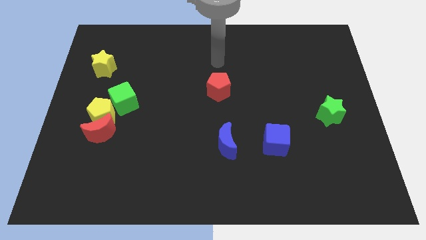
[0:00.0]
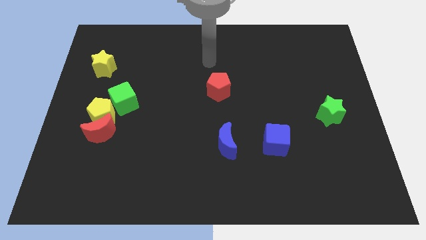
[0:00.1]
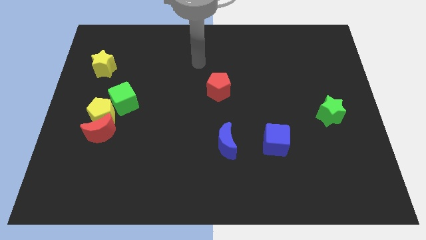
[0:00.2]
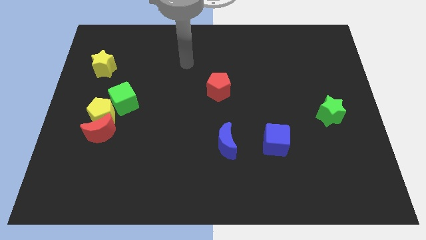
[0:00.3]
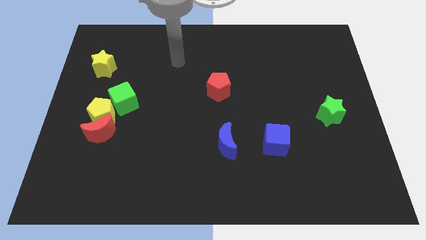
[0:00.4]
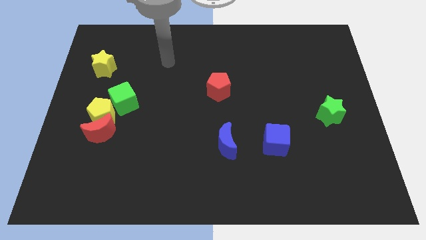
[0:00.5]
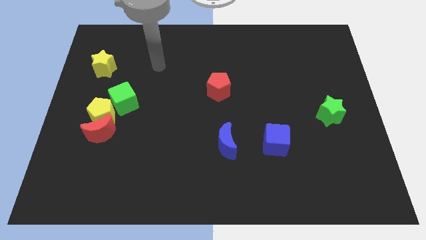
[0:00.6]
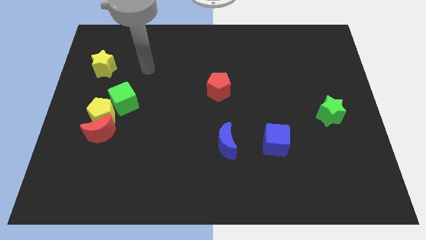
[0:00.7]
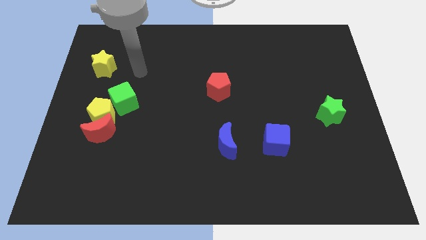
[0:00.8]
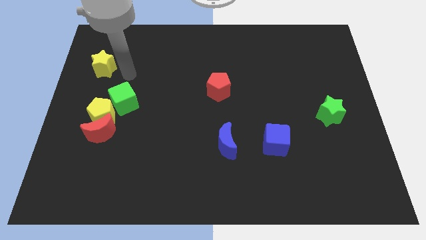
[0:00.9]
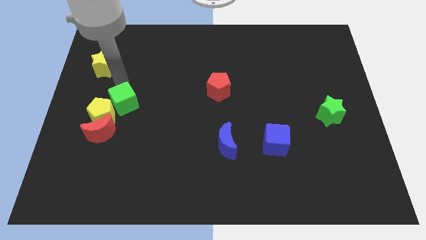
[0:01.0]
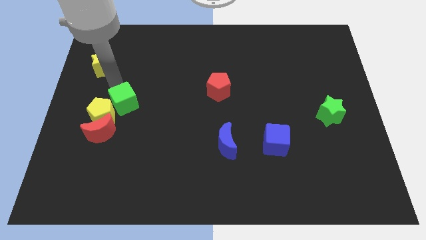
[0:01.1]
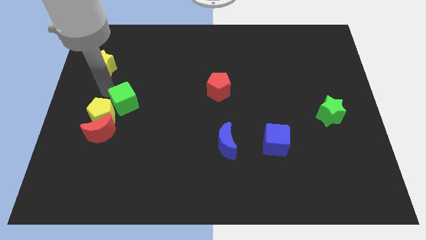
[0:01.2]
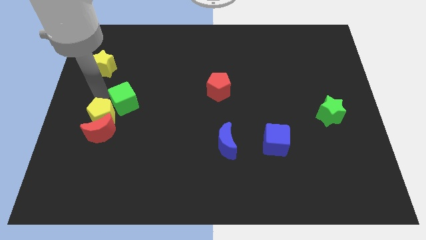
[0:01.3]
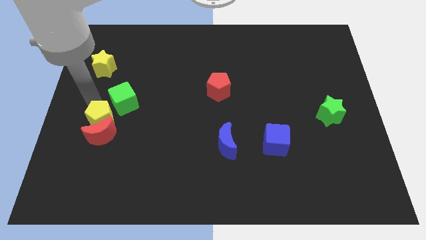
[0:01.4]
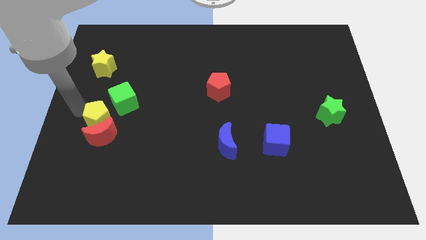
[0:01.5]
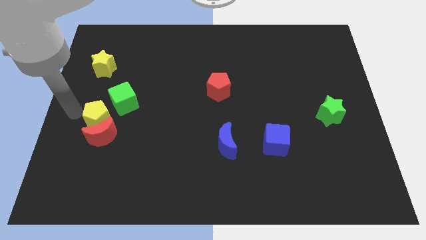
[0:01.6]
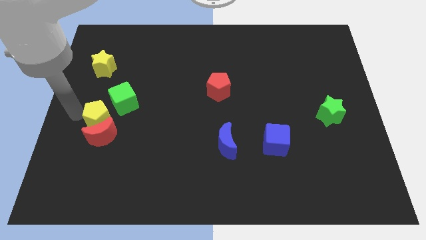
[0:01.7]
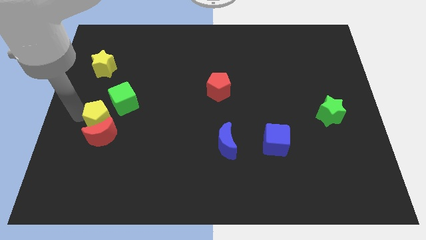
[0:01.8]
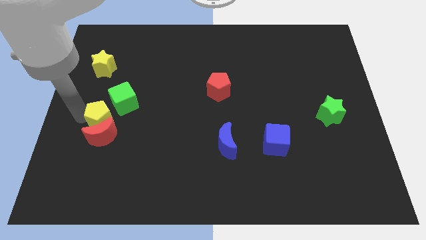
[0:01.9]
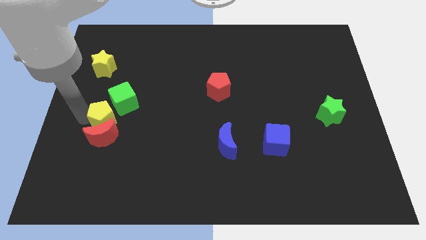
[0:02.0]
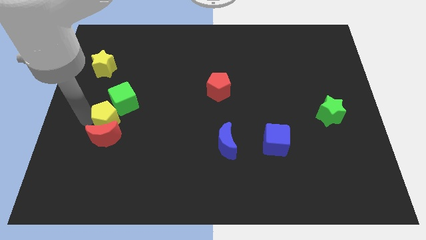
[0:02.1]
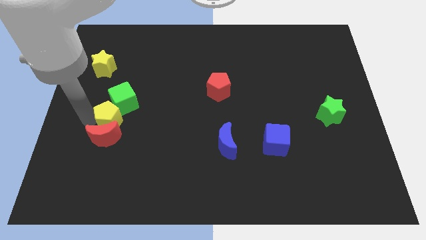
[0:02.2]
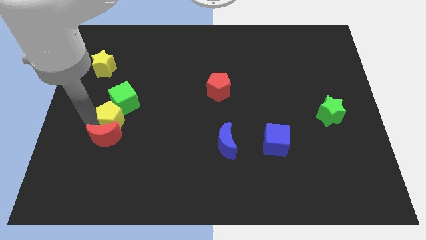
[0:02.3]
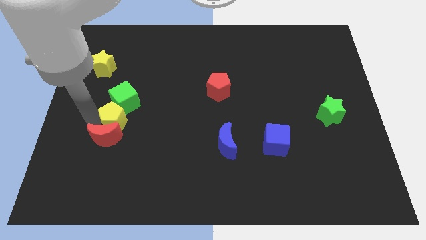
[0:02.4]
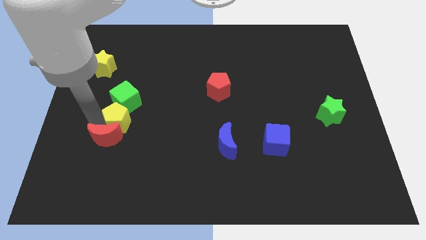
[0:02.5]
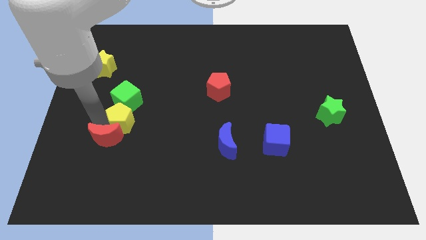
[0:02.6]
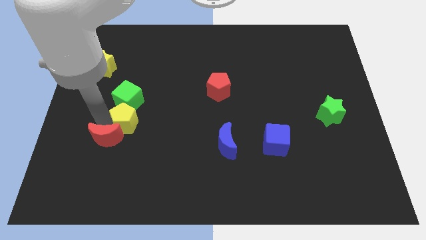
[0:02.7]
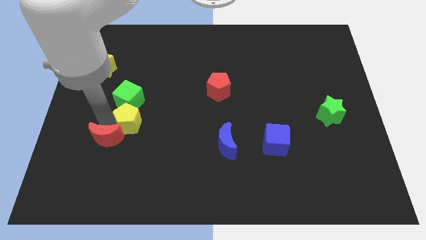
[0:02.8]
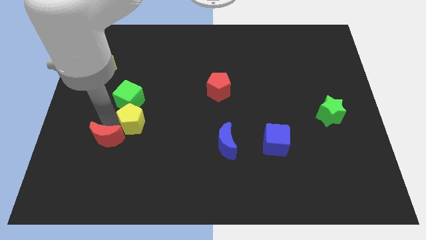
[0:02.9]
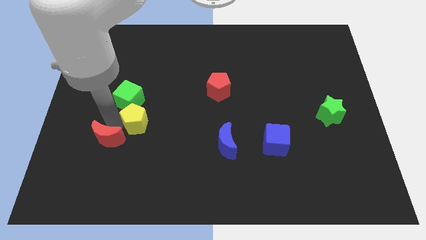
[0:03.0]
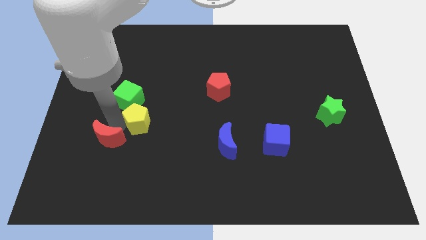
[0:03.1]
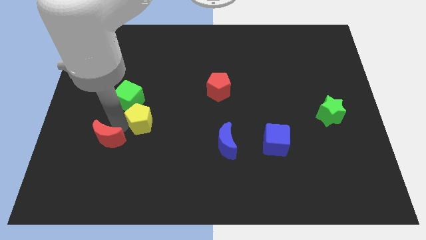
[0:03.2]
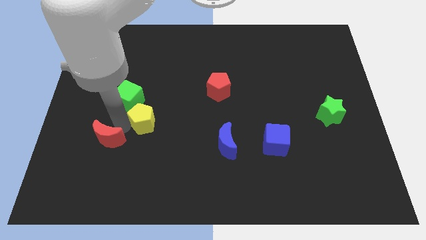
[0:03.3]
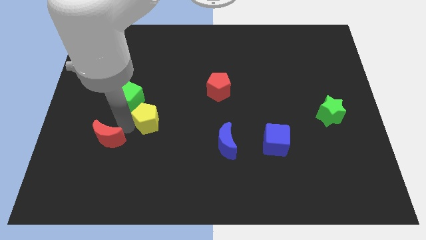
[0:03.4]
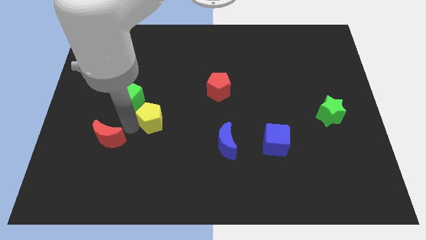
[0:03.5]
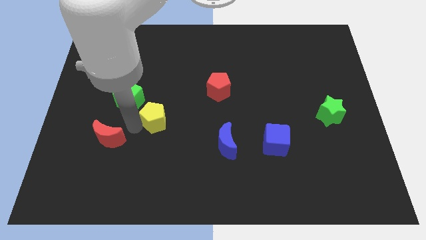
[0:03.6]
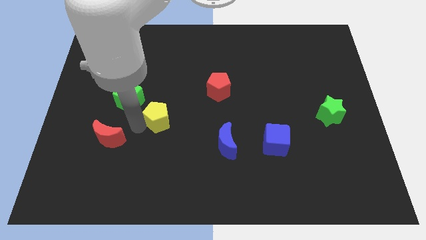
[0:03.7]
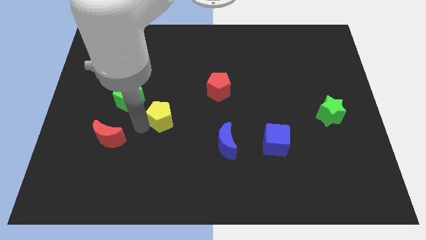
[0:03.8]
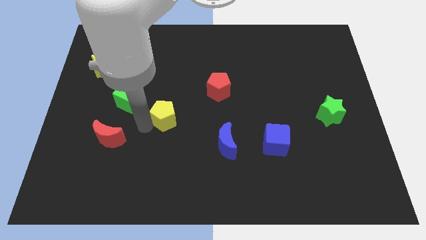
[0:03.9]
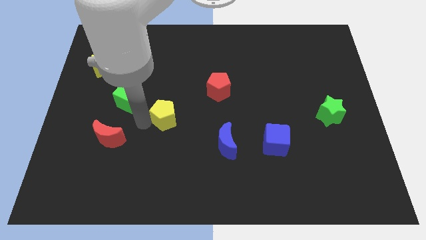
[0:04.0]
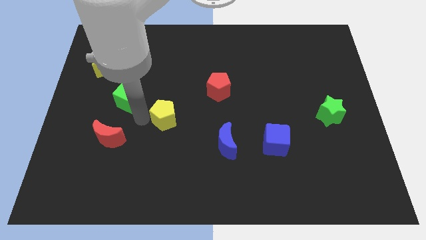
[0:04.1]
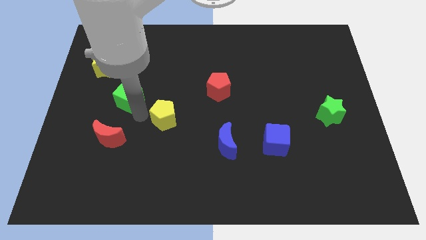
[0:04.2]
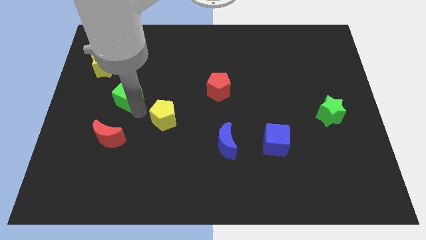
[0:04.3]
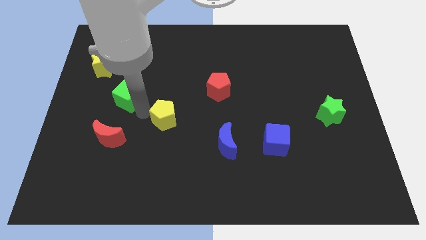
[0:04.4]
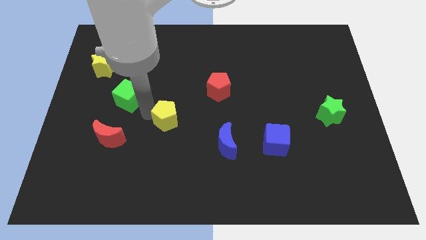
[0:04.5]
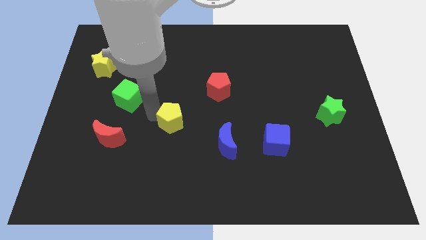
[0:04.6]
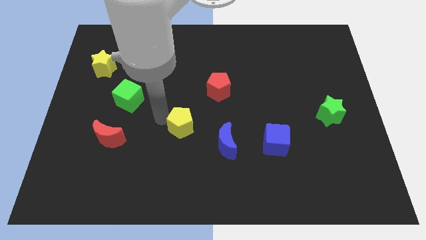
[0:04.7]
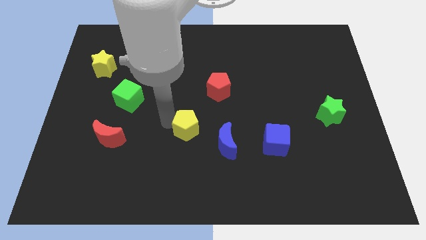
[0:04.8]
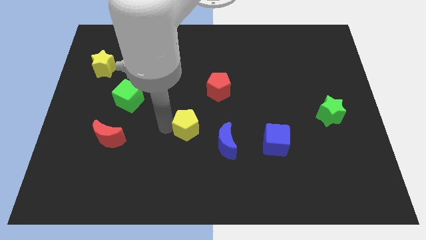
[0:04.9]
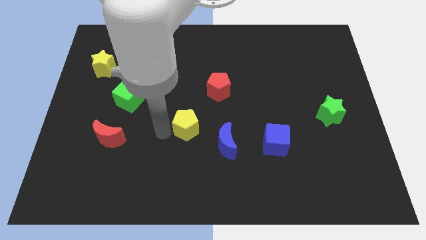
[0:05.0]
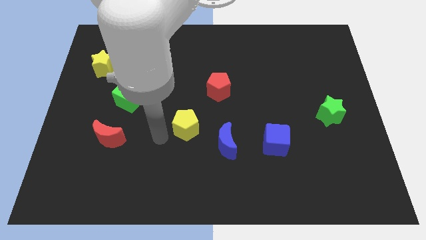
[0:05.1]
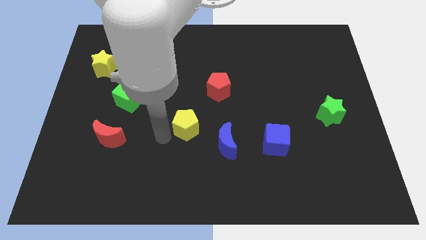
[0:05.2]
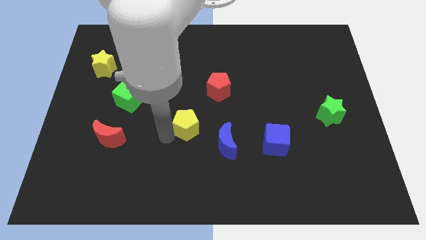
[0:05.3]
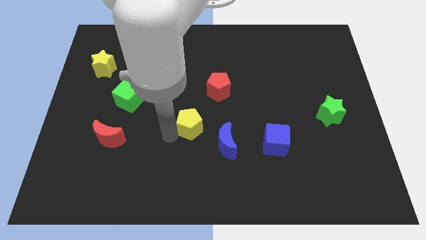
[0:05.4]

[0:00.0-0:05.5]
push the yellow pentagon right

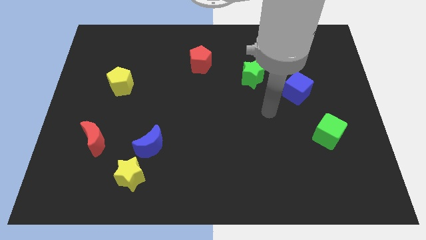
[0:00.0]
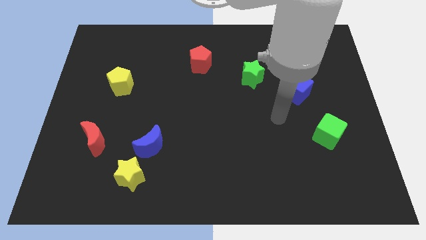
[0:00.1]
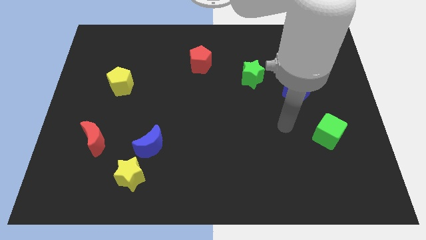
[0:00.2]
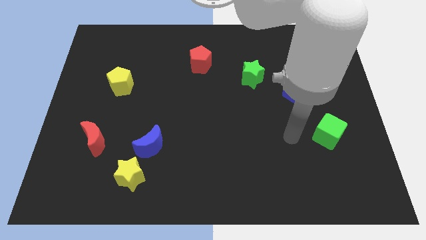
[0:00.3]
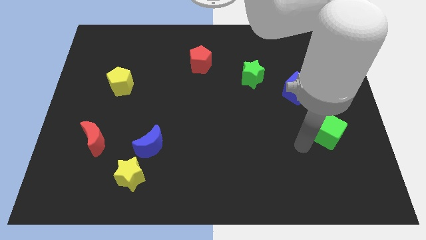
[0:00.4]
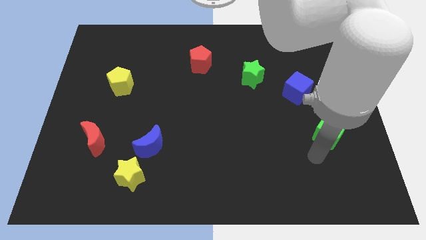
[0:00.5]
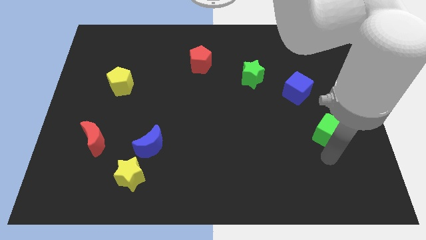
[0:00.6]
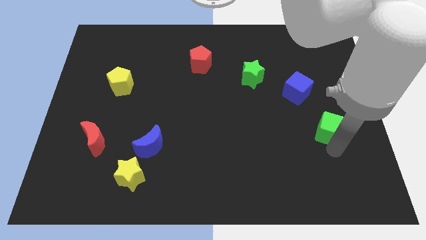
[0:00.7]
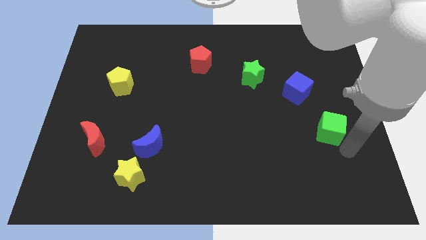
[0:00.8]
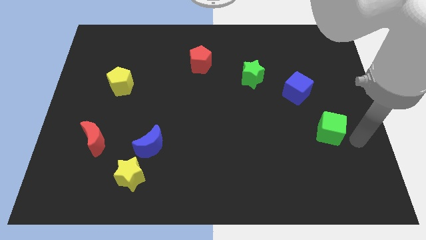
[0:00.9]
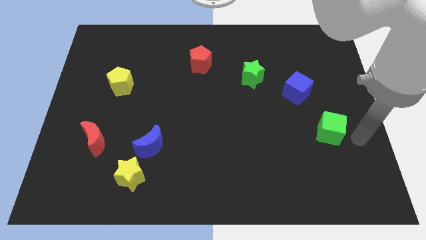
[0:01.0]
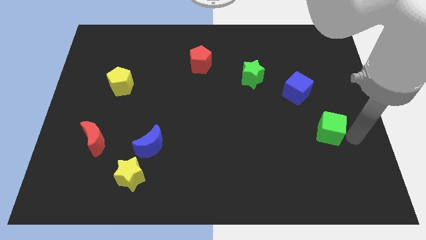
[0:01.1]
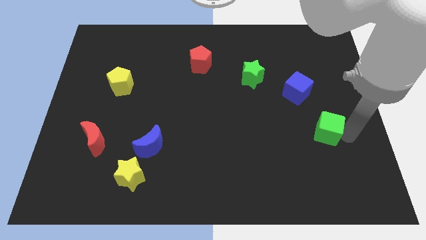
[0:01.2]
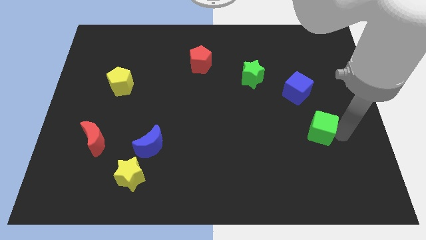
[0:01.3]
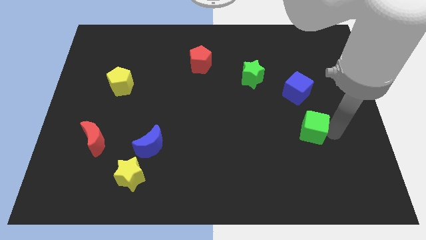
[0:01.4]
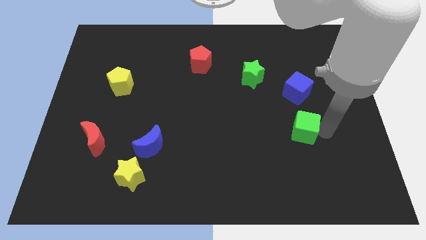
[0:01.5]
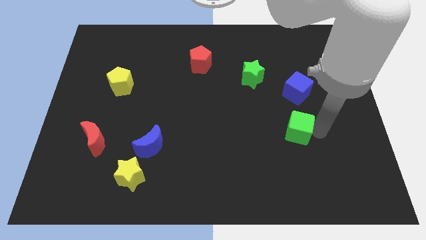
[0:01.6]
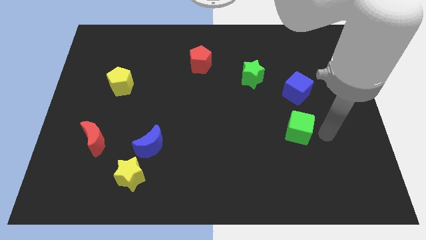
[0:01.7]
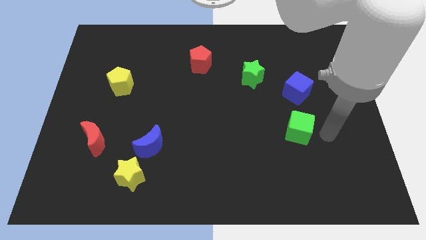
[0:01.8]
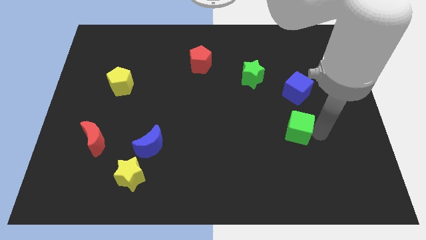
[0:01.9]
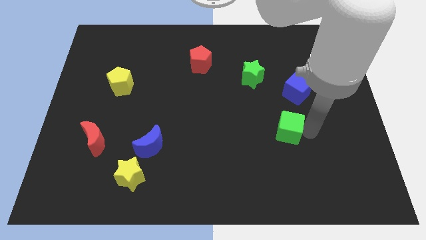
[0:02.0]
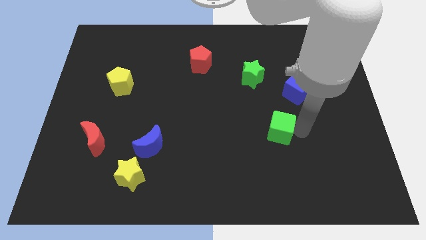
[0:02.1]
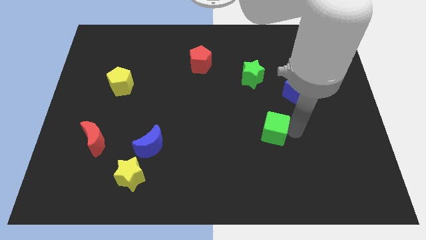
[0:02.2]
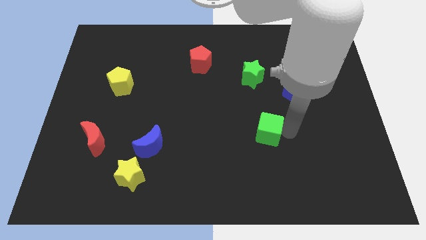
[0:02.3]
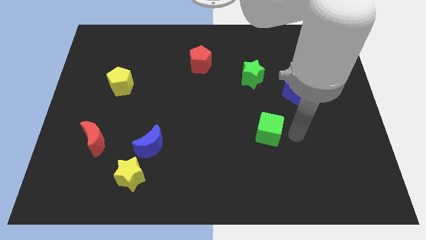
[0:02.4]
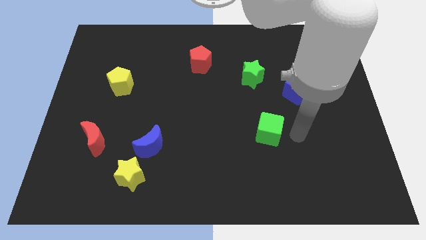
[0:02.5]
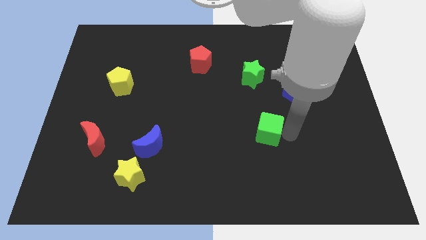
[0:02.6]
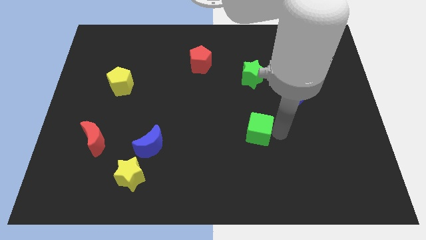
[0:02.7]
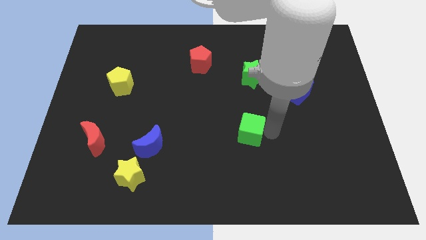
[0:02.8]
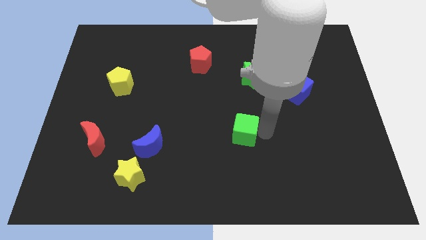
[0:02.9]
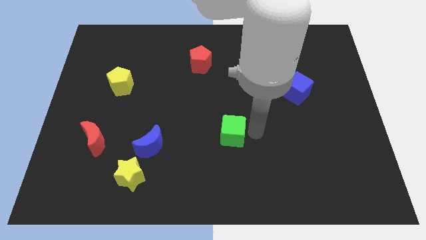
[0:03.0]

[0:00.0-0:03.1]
slide the green cube to the left
